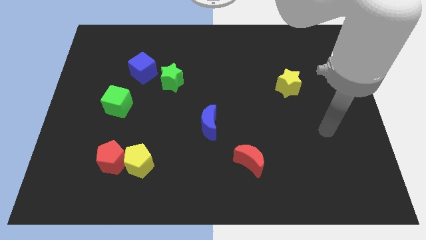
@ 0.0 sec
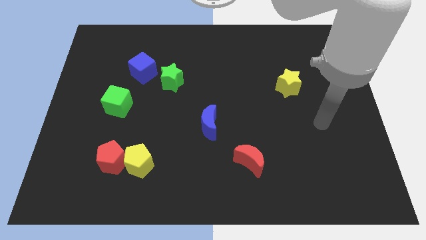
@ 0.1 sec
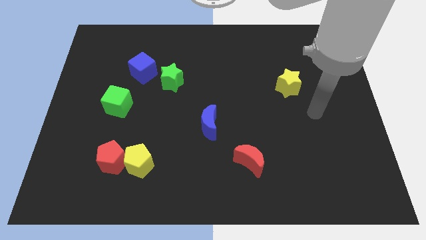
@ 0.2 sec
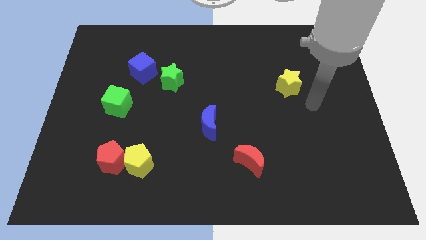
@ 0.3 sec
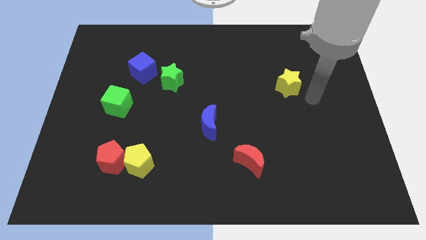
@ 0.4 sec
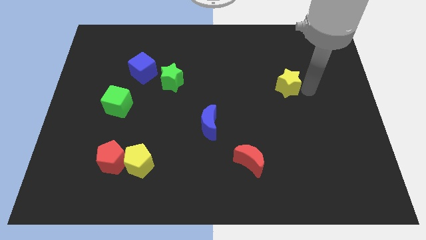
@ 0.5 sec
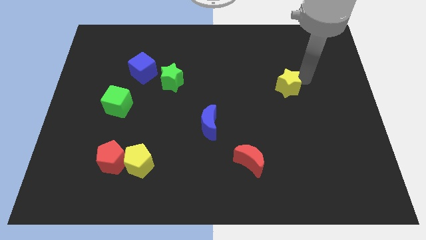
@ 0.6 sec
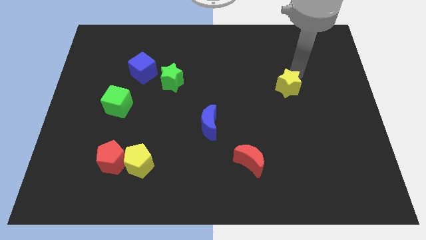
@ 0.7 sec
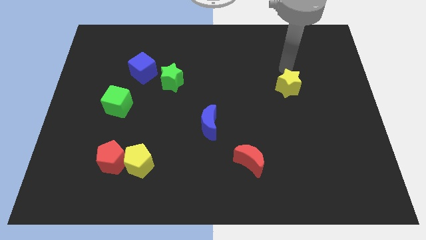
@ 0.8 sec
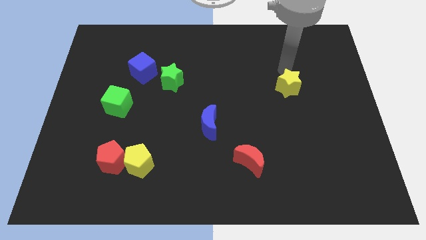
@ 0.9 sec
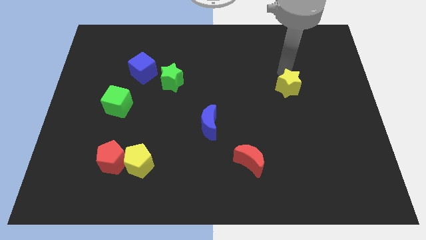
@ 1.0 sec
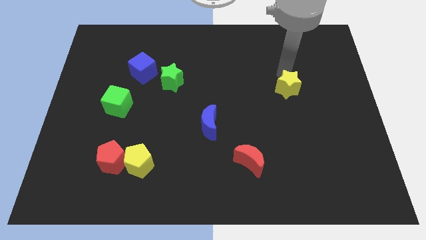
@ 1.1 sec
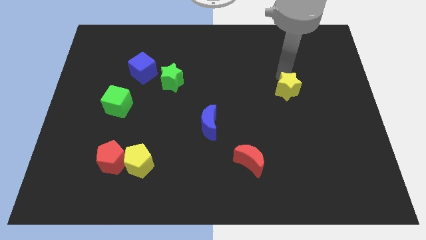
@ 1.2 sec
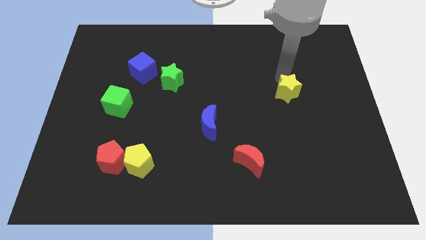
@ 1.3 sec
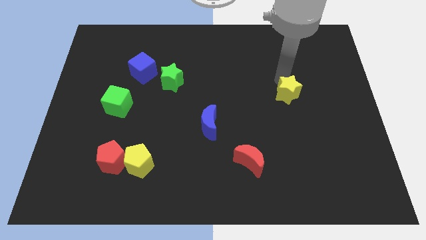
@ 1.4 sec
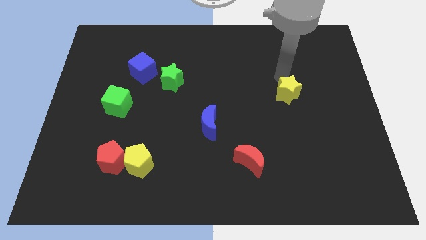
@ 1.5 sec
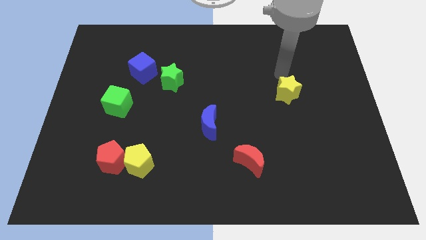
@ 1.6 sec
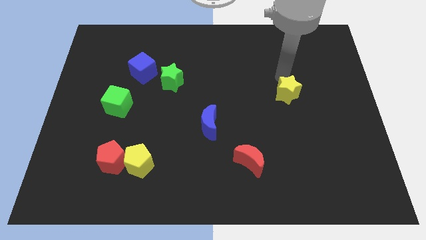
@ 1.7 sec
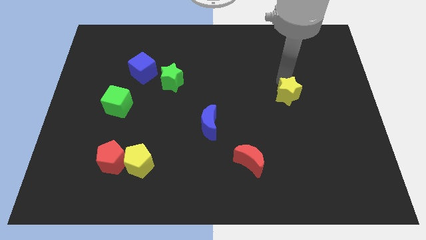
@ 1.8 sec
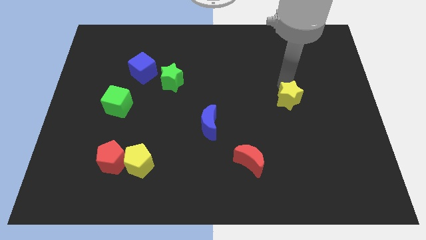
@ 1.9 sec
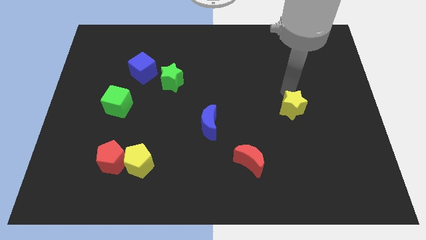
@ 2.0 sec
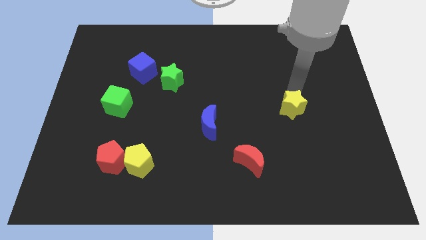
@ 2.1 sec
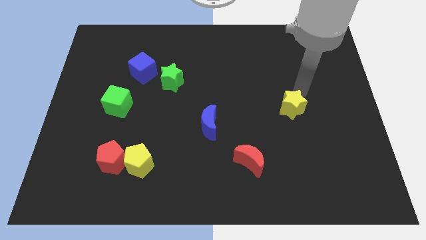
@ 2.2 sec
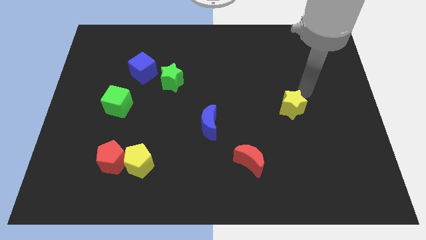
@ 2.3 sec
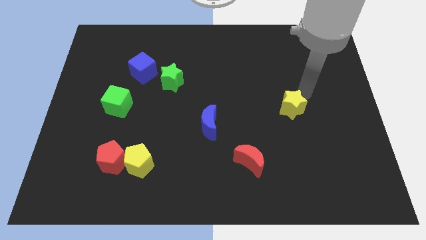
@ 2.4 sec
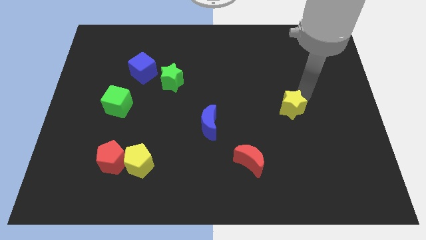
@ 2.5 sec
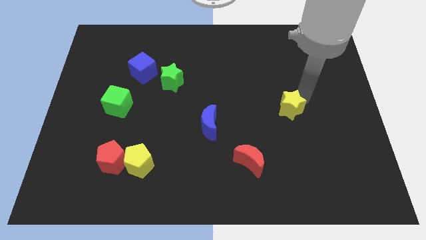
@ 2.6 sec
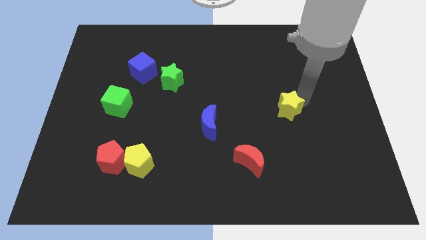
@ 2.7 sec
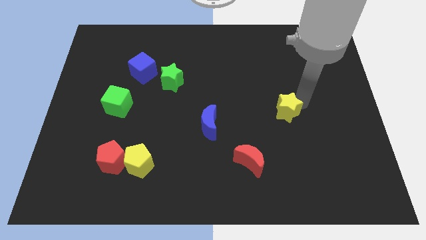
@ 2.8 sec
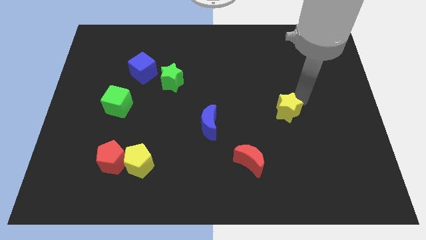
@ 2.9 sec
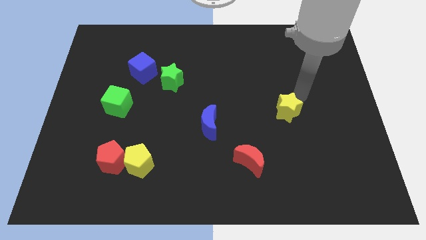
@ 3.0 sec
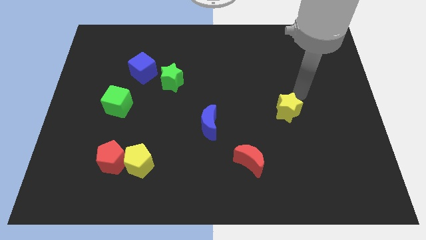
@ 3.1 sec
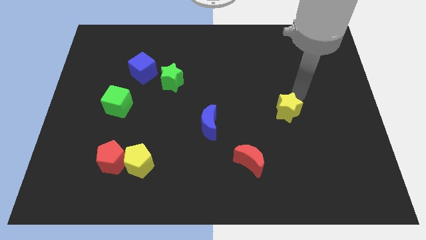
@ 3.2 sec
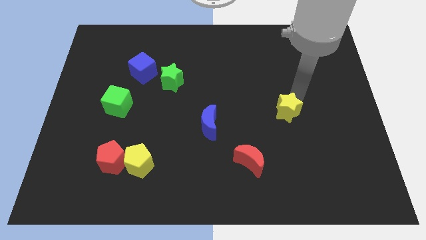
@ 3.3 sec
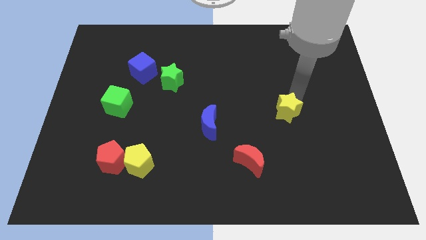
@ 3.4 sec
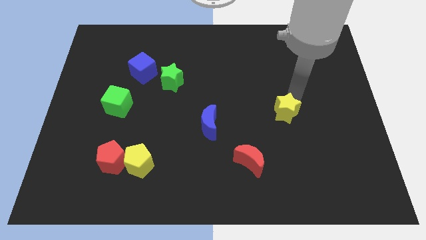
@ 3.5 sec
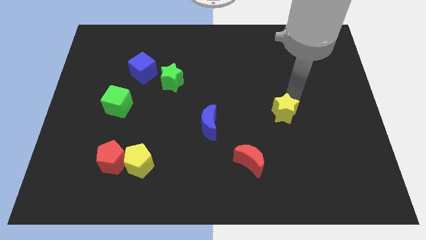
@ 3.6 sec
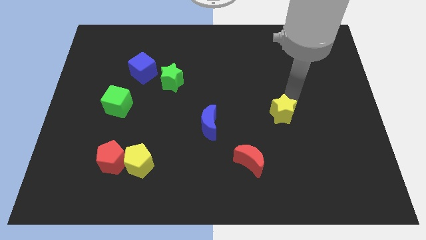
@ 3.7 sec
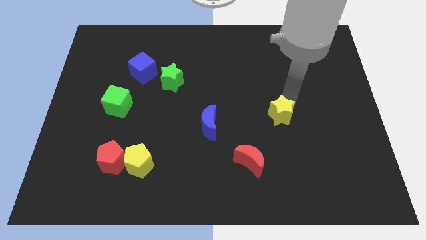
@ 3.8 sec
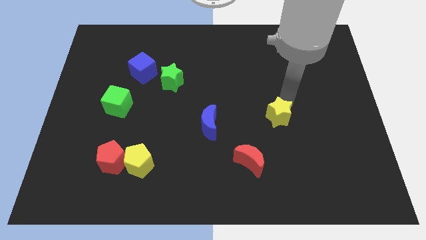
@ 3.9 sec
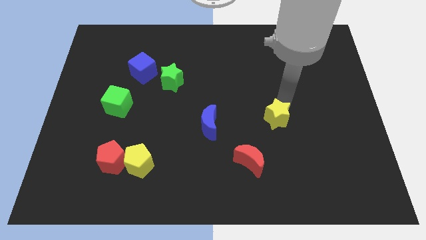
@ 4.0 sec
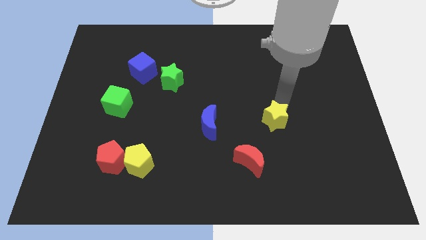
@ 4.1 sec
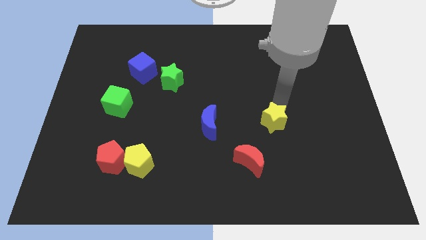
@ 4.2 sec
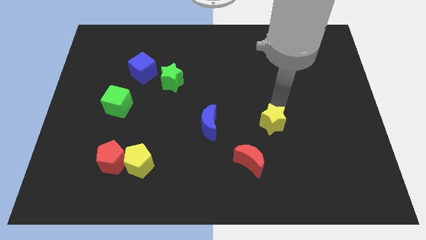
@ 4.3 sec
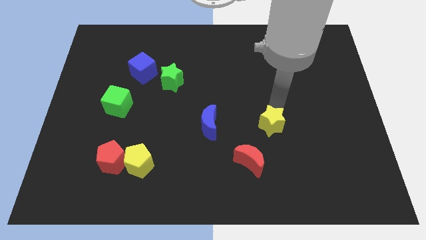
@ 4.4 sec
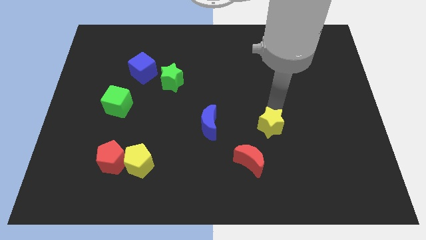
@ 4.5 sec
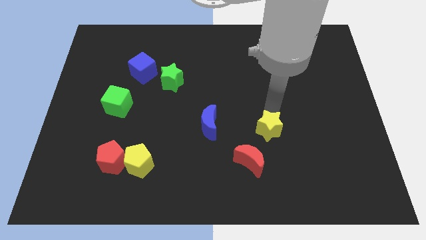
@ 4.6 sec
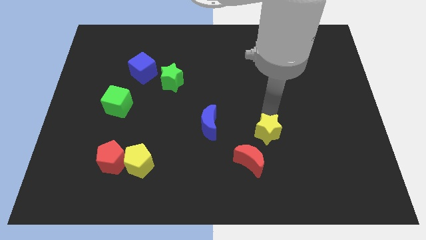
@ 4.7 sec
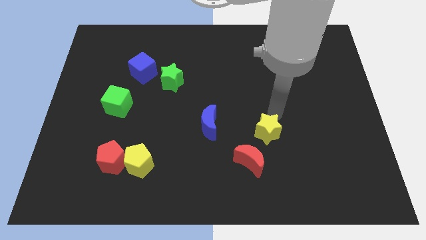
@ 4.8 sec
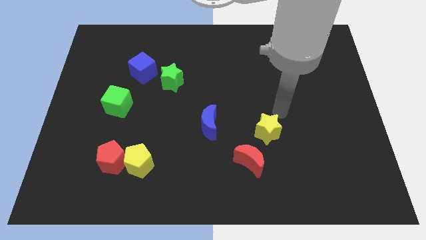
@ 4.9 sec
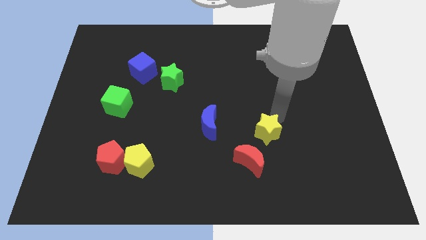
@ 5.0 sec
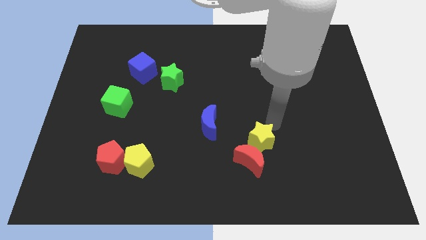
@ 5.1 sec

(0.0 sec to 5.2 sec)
put the yellow star towards the red moon

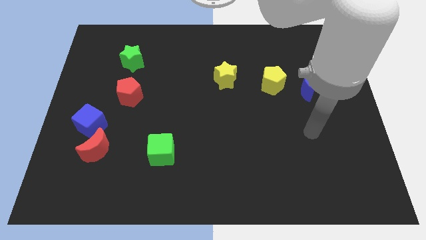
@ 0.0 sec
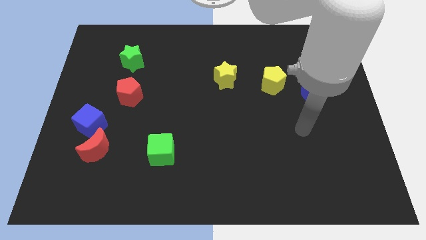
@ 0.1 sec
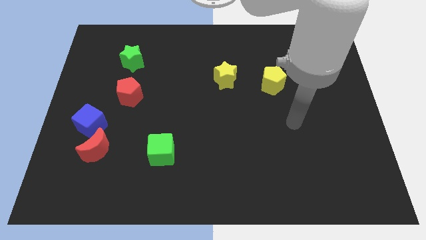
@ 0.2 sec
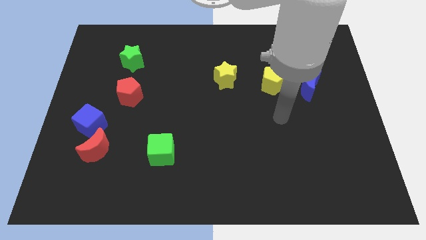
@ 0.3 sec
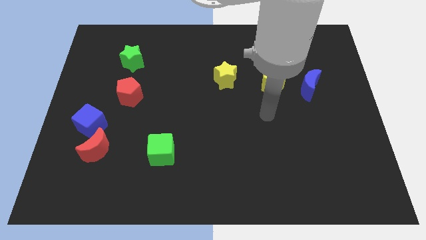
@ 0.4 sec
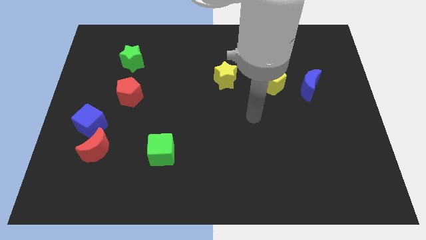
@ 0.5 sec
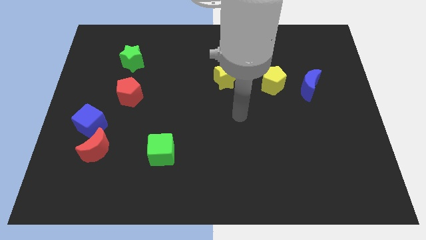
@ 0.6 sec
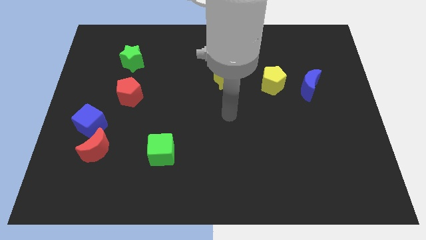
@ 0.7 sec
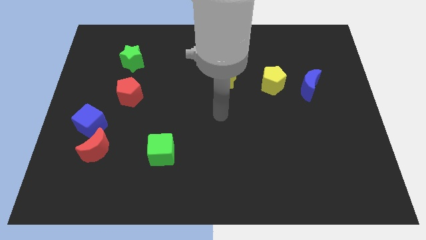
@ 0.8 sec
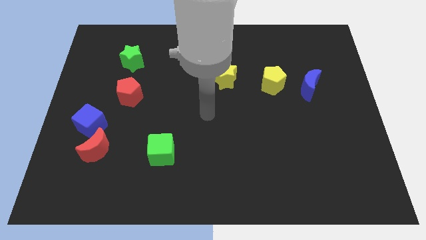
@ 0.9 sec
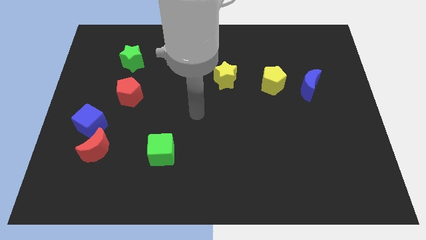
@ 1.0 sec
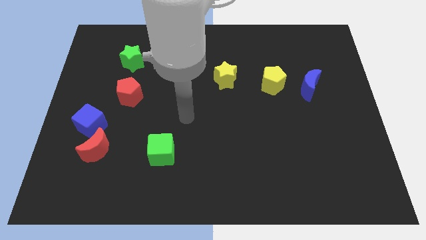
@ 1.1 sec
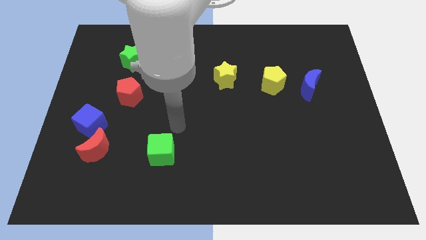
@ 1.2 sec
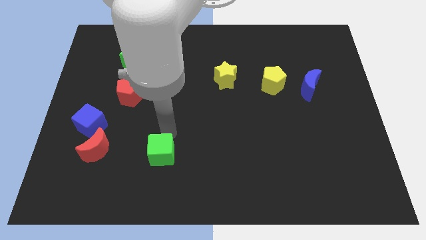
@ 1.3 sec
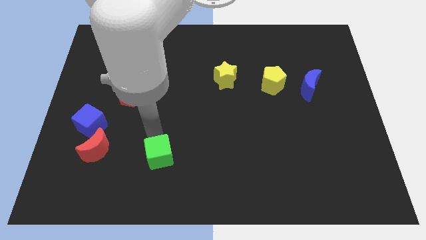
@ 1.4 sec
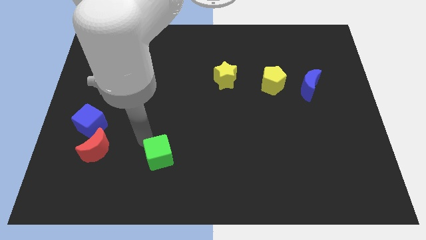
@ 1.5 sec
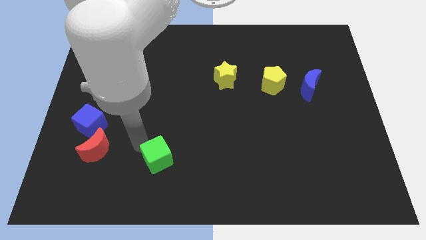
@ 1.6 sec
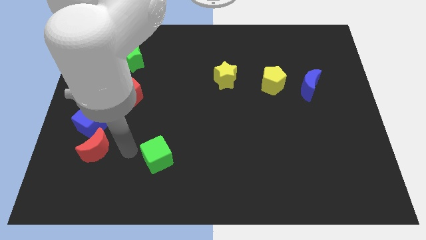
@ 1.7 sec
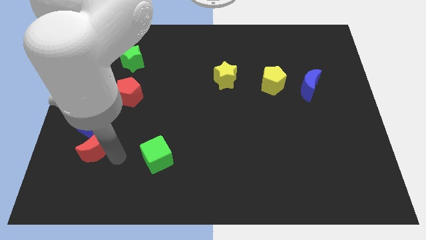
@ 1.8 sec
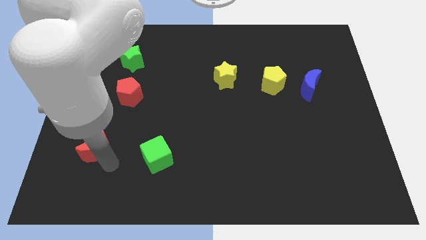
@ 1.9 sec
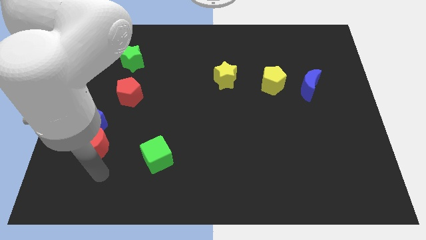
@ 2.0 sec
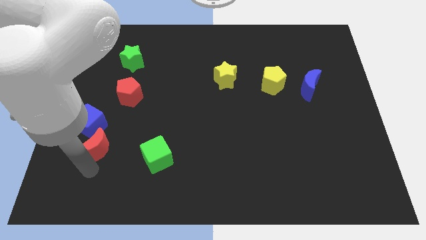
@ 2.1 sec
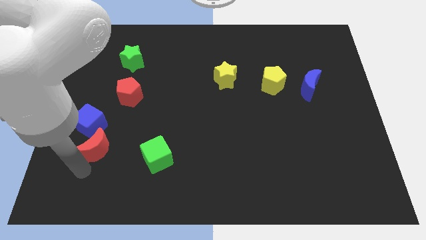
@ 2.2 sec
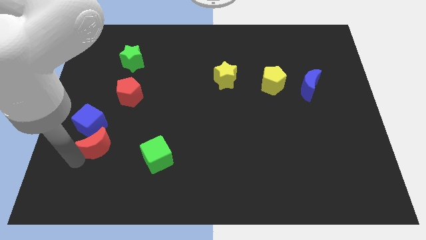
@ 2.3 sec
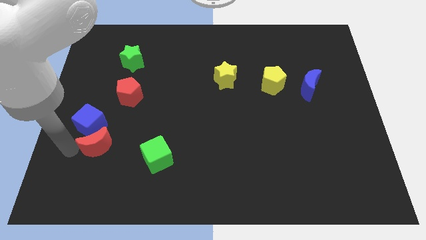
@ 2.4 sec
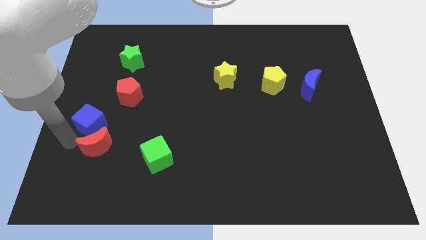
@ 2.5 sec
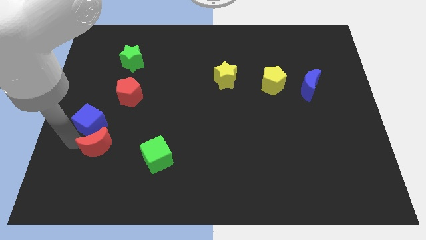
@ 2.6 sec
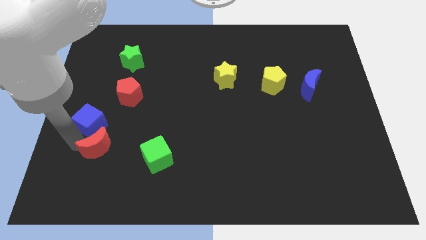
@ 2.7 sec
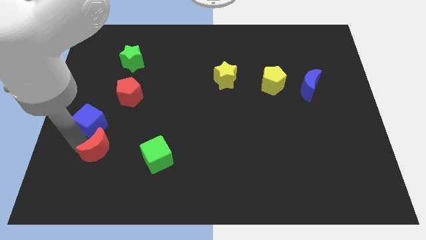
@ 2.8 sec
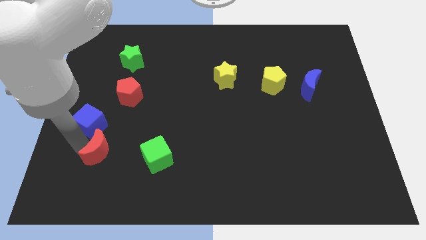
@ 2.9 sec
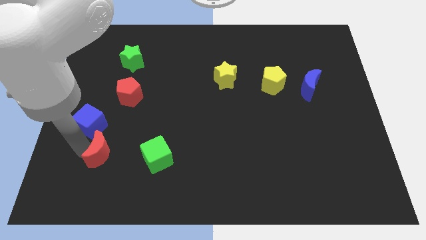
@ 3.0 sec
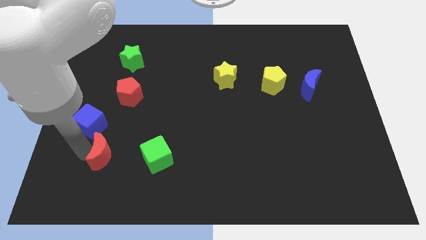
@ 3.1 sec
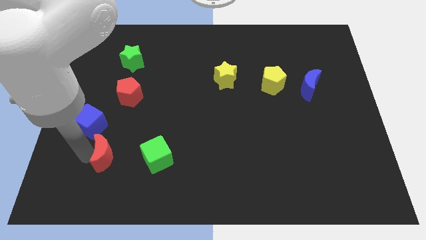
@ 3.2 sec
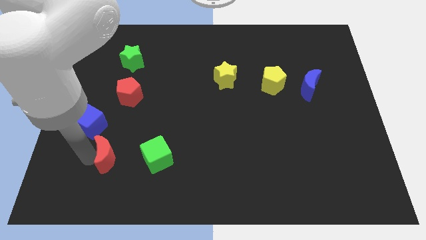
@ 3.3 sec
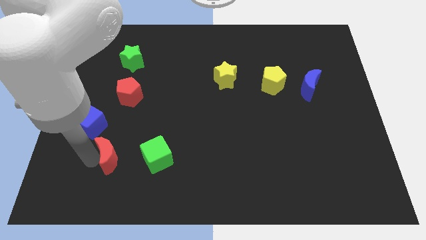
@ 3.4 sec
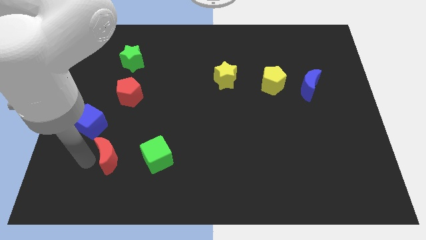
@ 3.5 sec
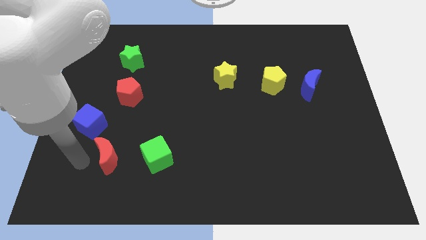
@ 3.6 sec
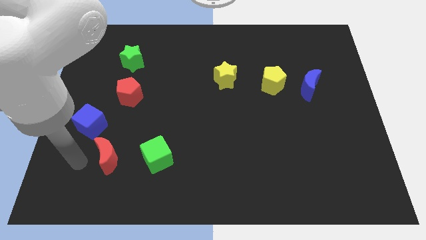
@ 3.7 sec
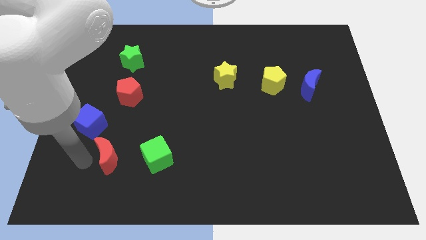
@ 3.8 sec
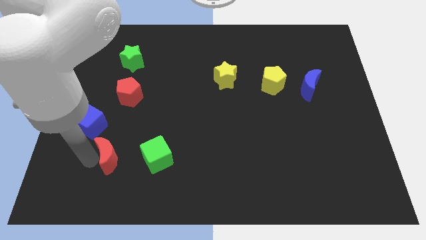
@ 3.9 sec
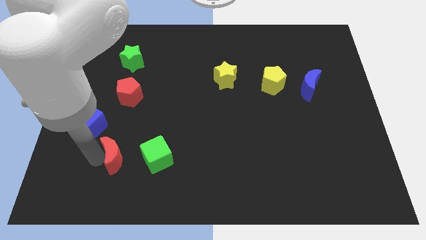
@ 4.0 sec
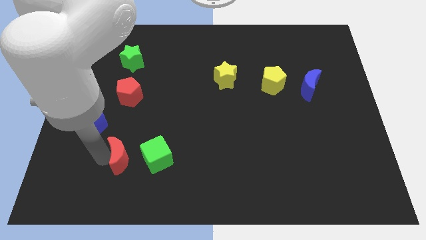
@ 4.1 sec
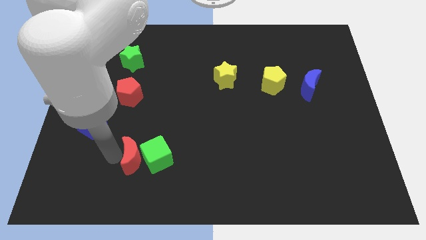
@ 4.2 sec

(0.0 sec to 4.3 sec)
put the red moon next to the green cube
